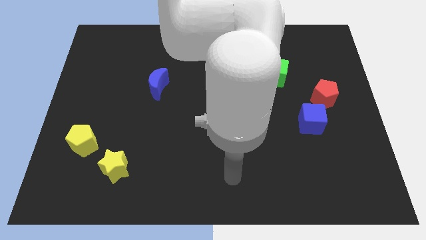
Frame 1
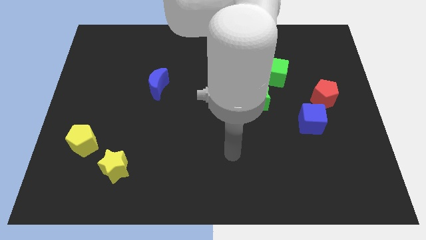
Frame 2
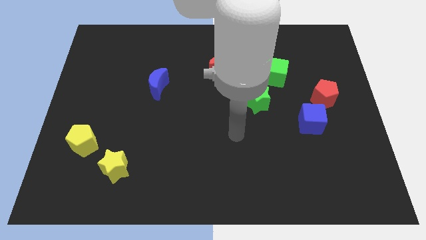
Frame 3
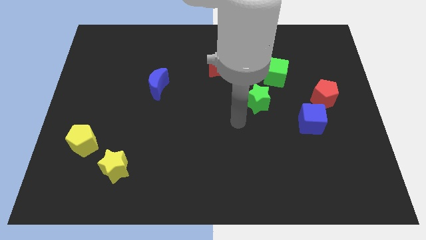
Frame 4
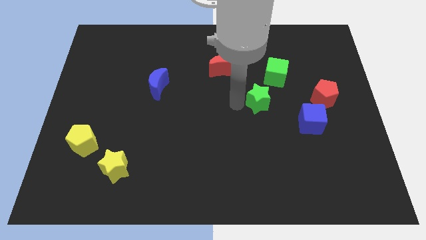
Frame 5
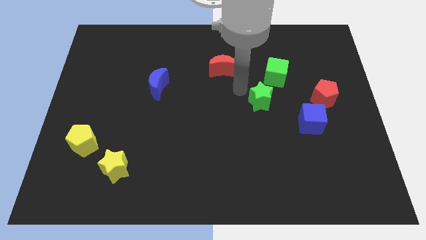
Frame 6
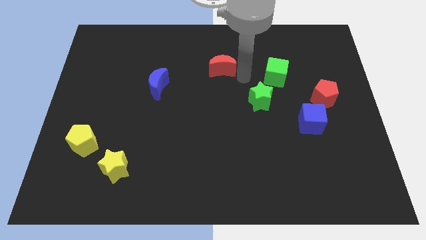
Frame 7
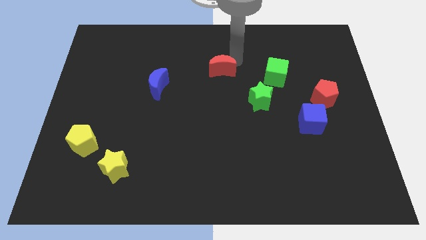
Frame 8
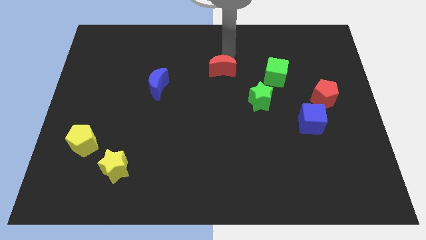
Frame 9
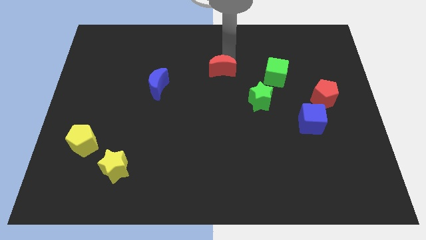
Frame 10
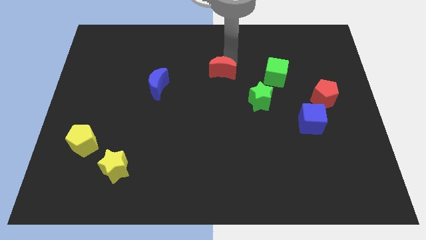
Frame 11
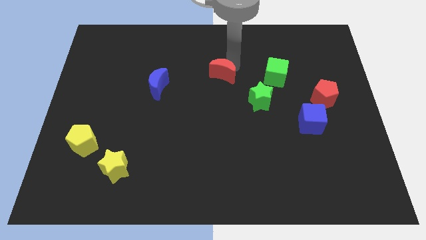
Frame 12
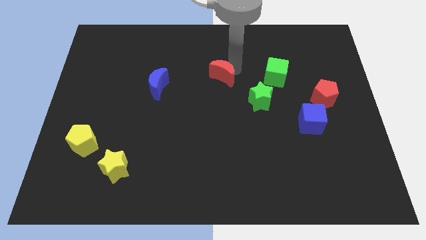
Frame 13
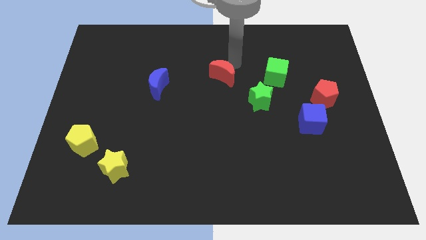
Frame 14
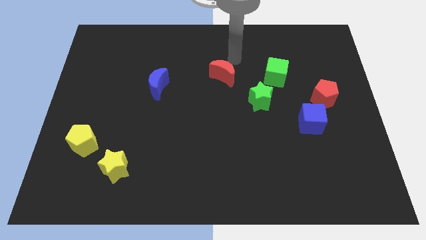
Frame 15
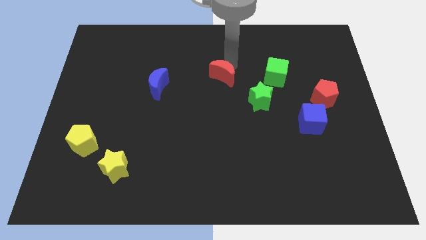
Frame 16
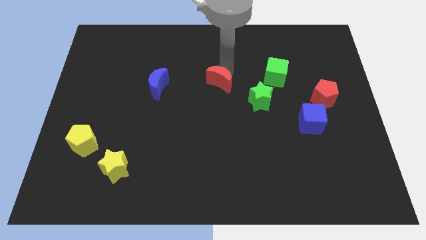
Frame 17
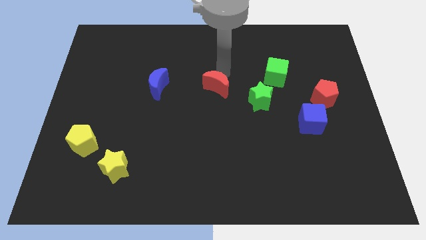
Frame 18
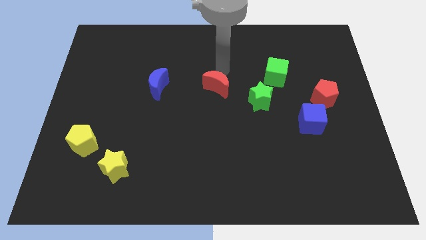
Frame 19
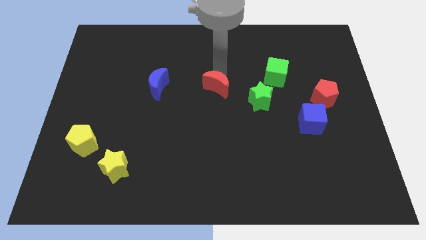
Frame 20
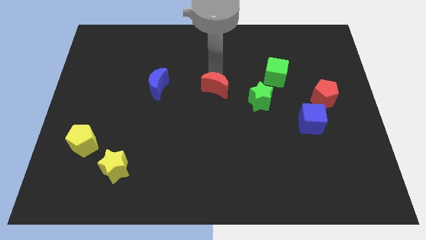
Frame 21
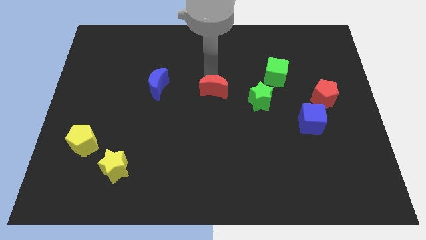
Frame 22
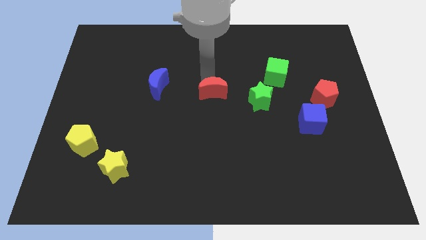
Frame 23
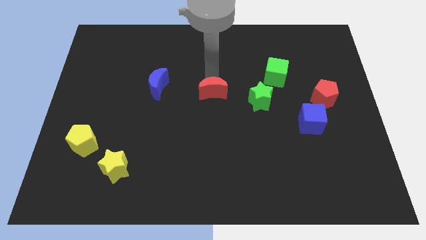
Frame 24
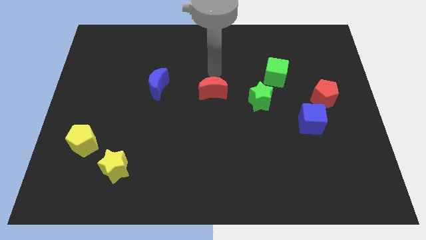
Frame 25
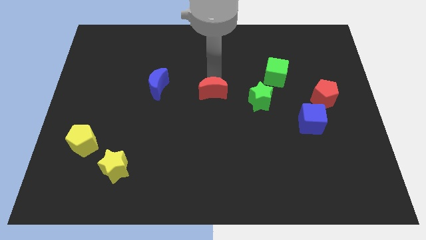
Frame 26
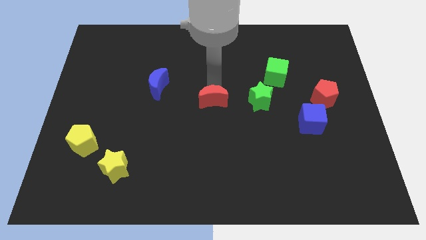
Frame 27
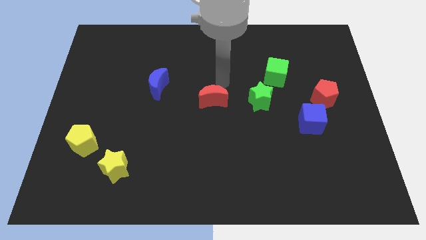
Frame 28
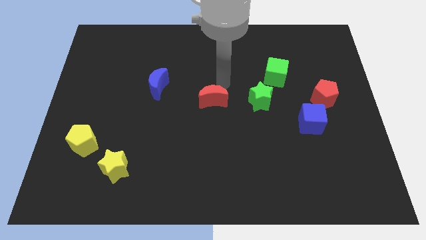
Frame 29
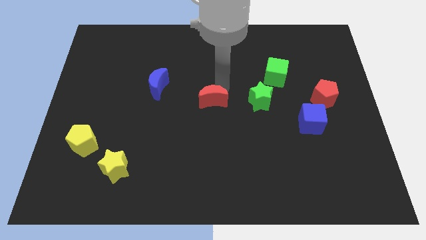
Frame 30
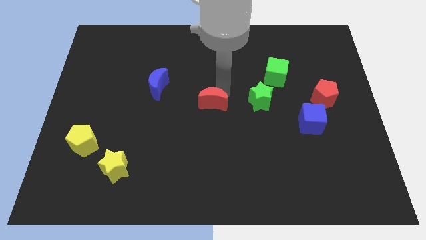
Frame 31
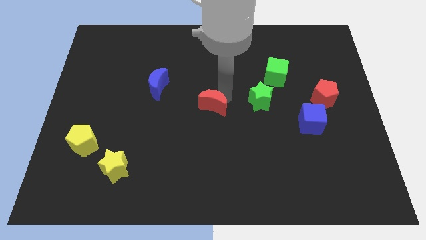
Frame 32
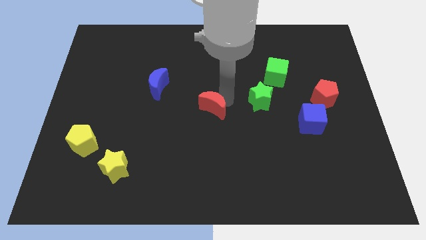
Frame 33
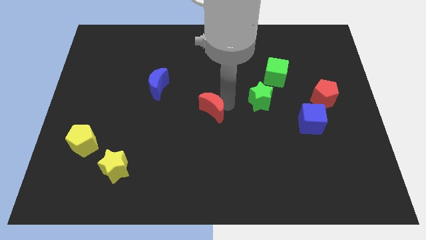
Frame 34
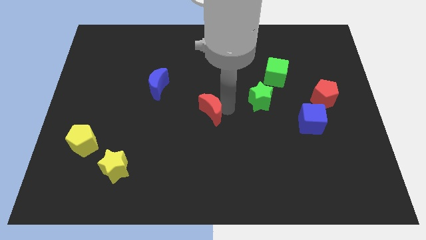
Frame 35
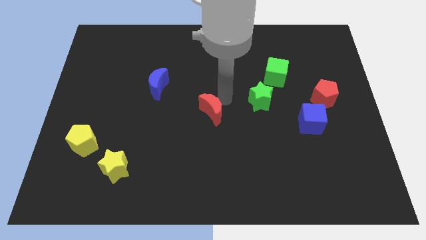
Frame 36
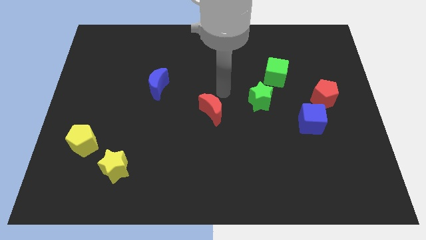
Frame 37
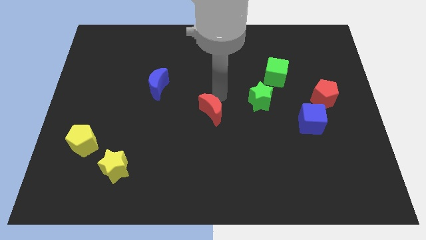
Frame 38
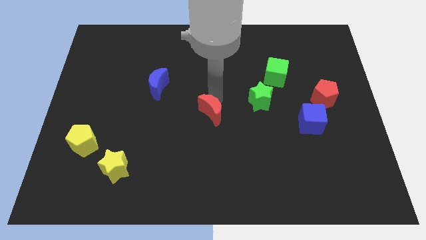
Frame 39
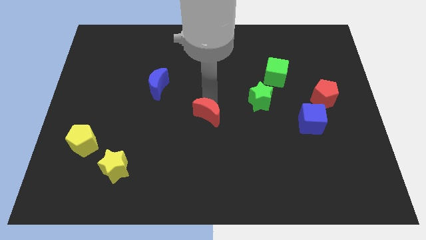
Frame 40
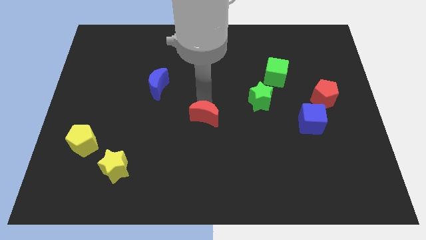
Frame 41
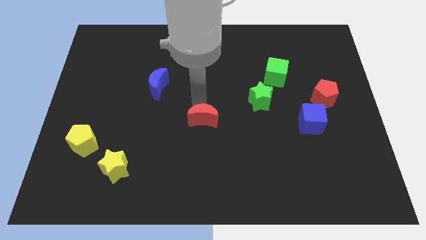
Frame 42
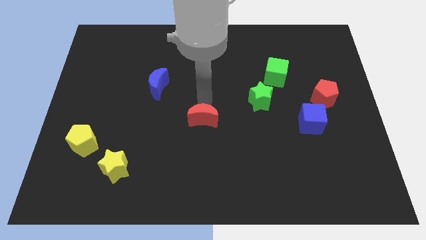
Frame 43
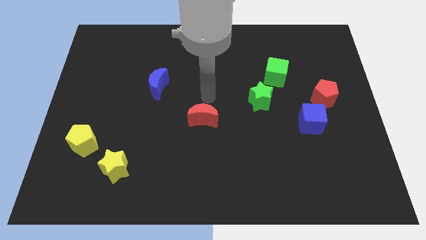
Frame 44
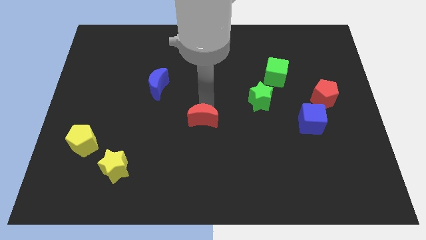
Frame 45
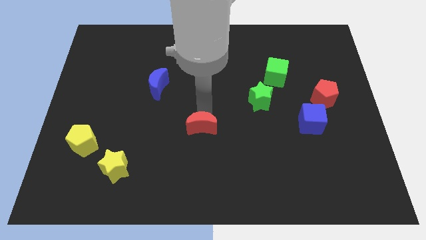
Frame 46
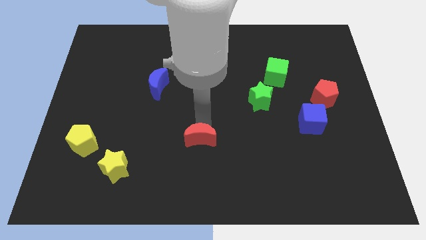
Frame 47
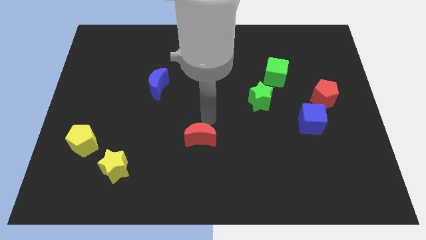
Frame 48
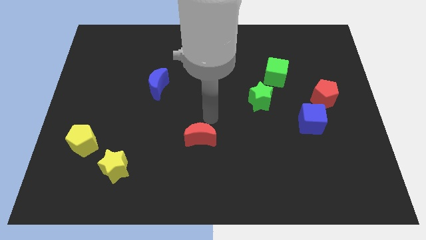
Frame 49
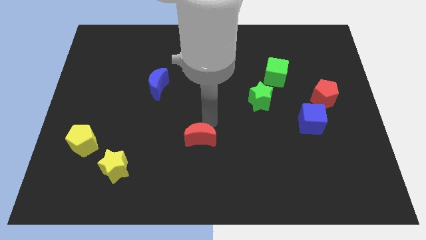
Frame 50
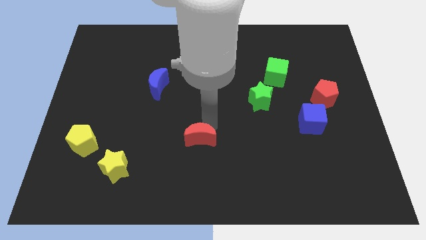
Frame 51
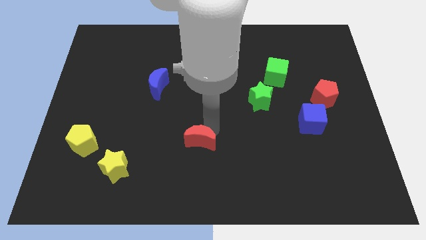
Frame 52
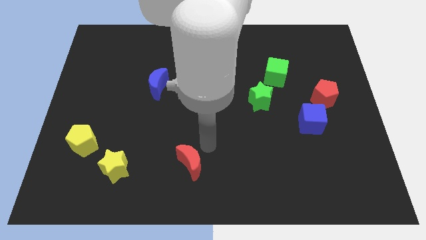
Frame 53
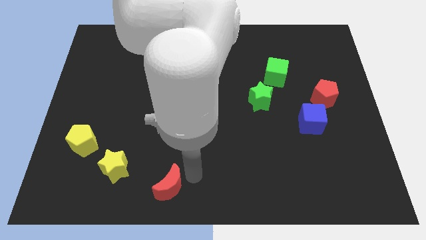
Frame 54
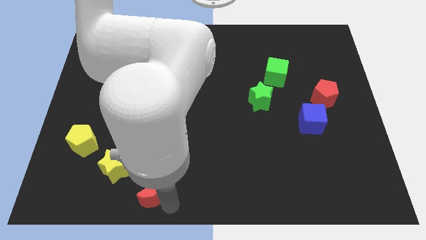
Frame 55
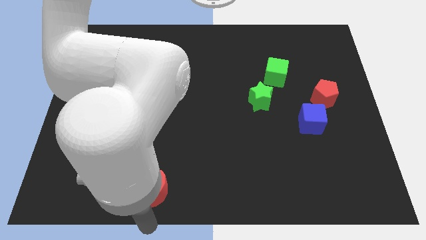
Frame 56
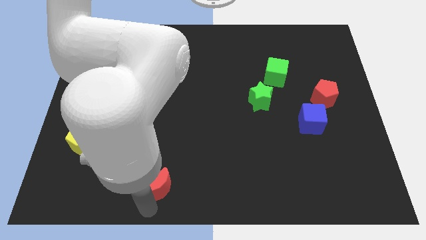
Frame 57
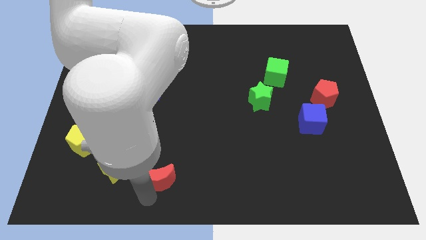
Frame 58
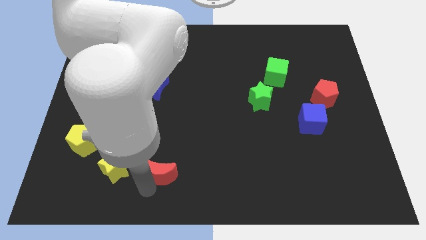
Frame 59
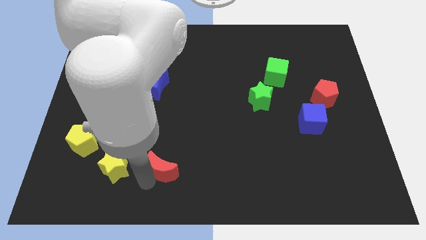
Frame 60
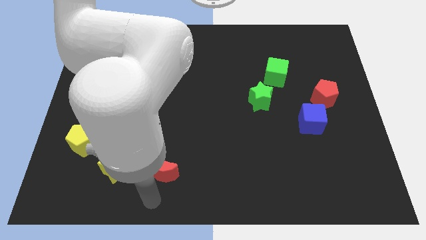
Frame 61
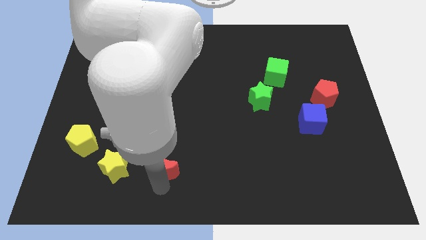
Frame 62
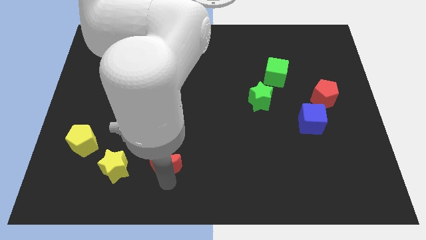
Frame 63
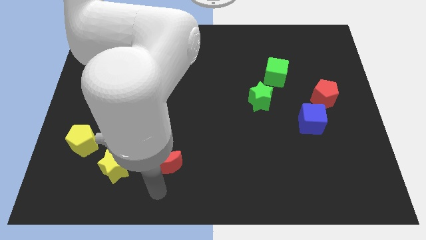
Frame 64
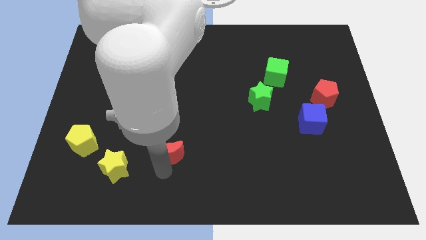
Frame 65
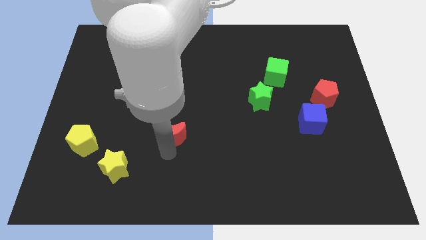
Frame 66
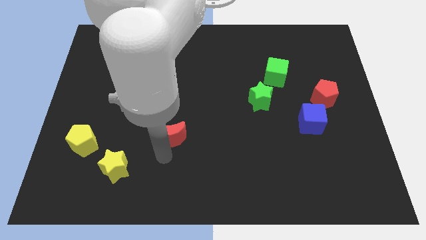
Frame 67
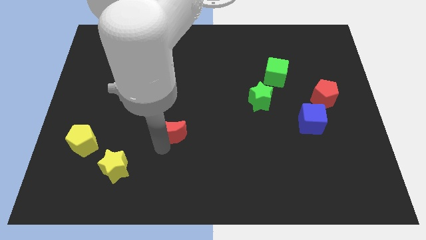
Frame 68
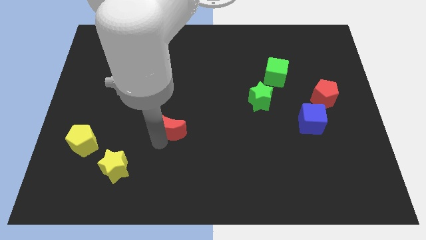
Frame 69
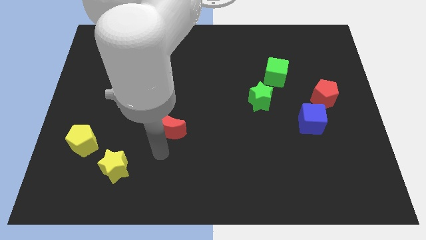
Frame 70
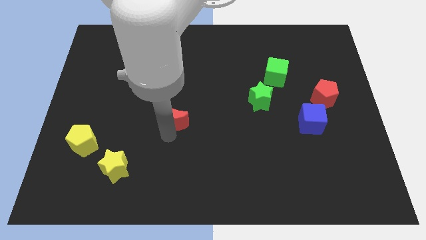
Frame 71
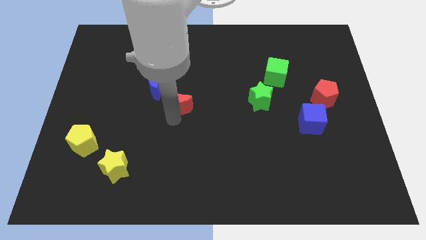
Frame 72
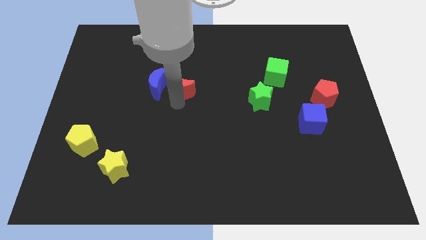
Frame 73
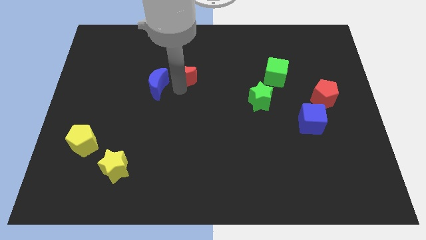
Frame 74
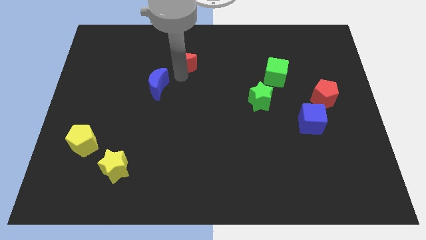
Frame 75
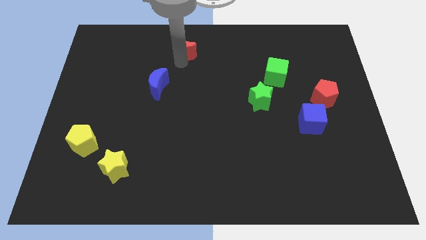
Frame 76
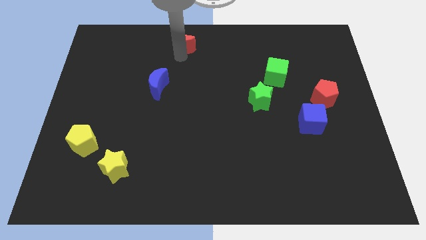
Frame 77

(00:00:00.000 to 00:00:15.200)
slide the red moon to the top side
